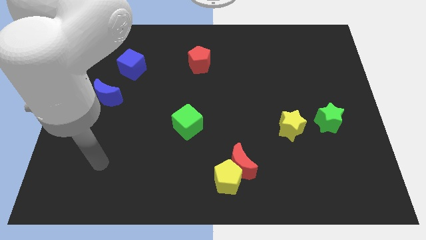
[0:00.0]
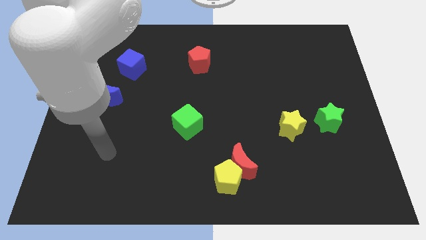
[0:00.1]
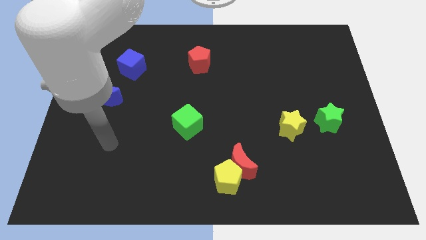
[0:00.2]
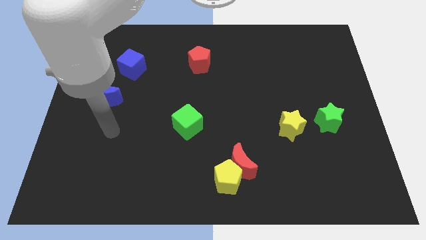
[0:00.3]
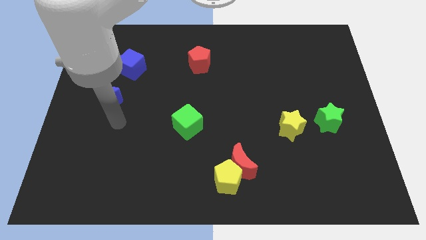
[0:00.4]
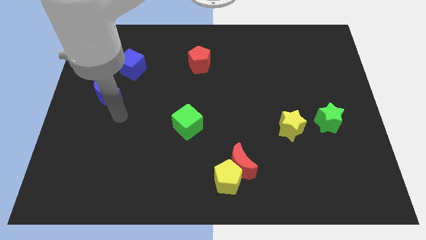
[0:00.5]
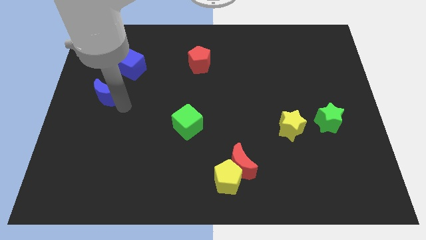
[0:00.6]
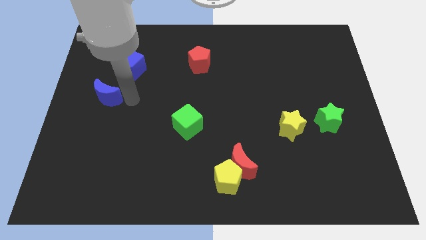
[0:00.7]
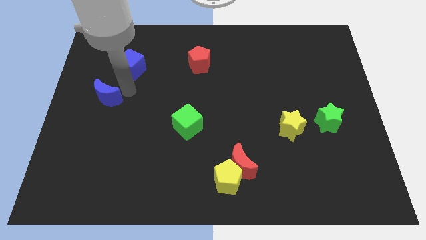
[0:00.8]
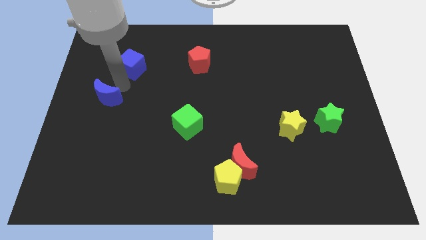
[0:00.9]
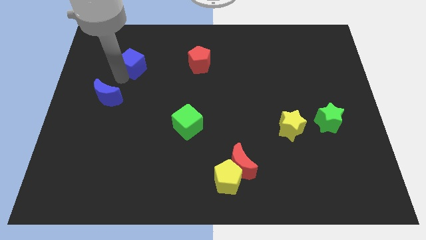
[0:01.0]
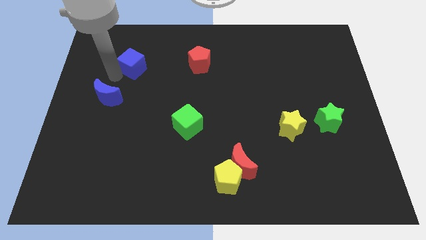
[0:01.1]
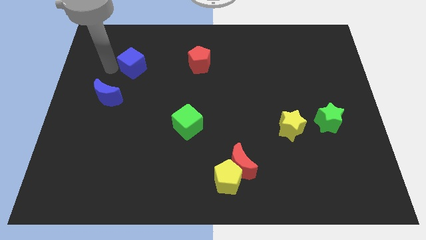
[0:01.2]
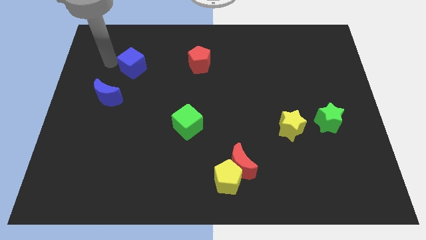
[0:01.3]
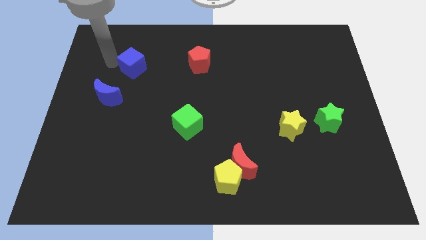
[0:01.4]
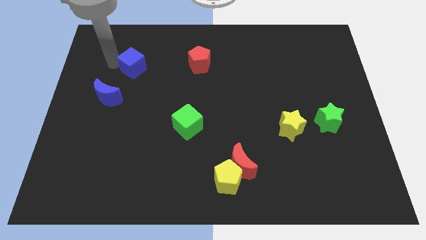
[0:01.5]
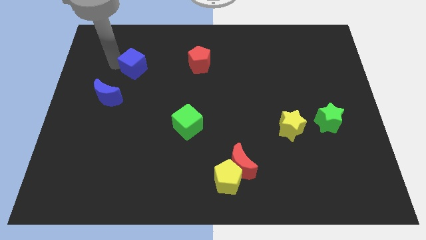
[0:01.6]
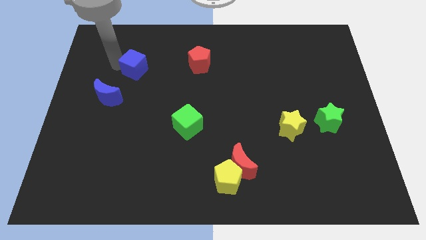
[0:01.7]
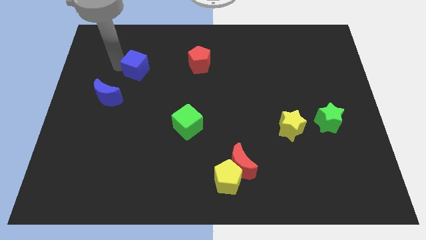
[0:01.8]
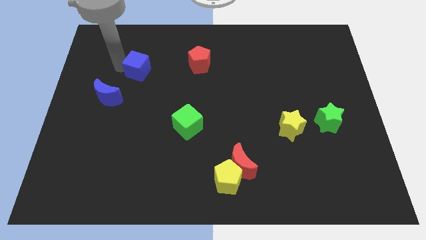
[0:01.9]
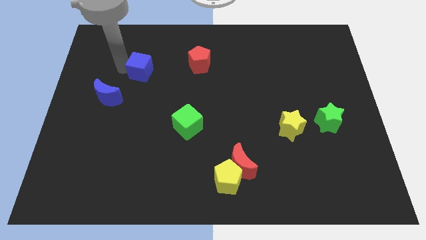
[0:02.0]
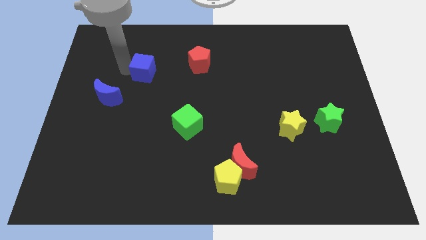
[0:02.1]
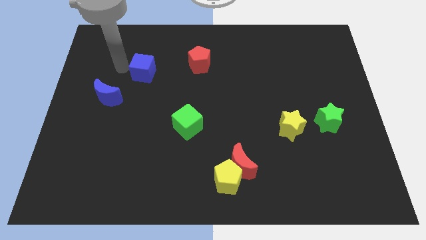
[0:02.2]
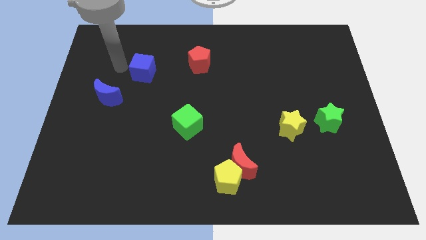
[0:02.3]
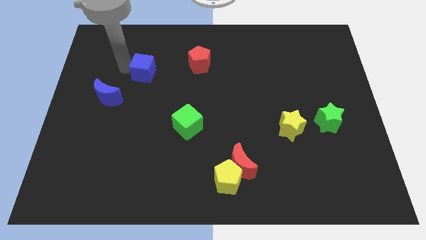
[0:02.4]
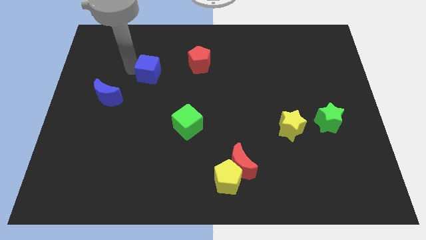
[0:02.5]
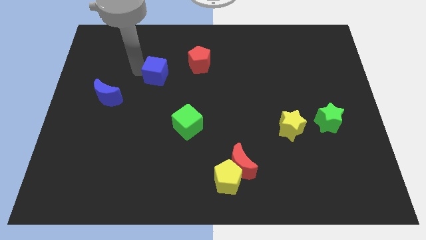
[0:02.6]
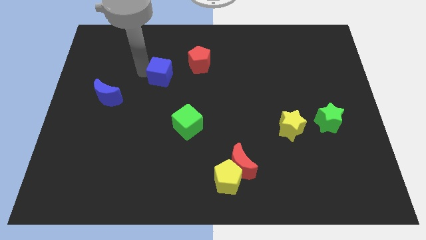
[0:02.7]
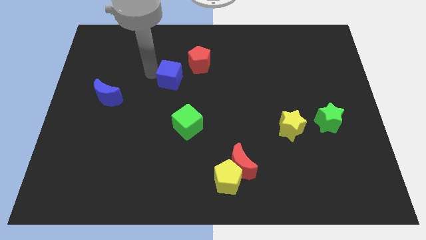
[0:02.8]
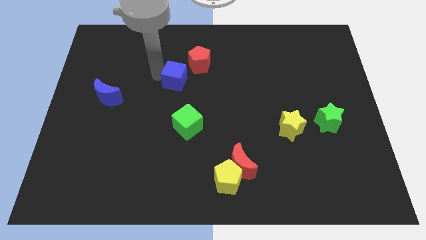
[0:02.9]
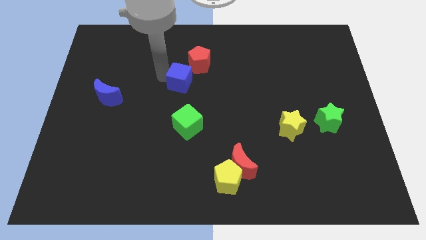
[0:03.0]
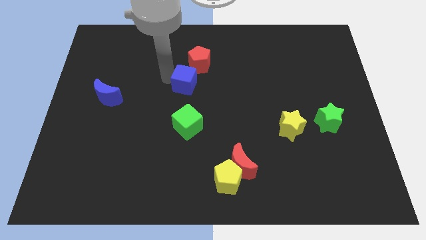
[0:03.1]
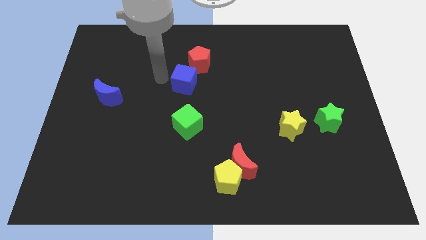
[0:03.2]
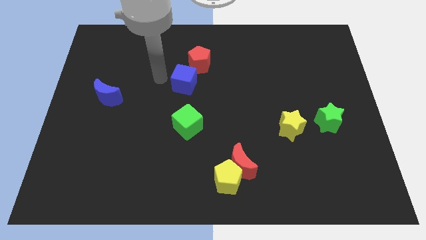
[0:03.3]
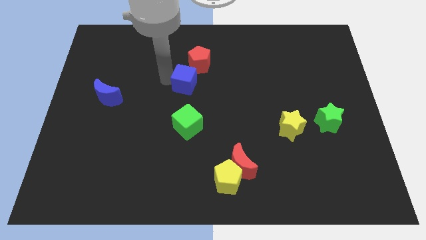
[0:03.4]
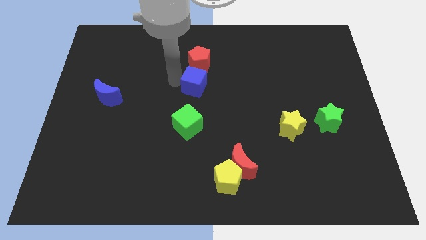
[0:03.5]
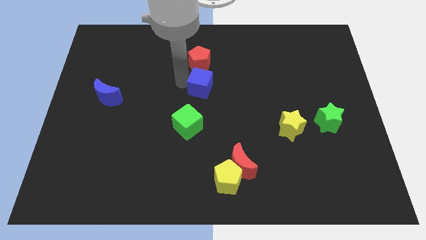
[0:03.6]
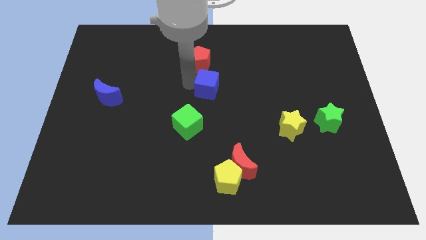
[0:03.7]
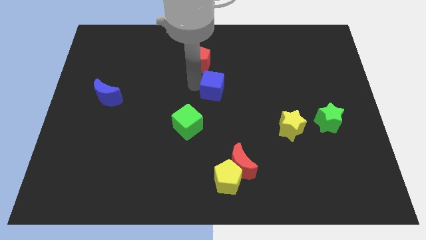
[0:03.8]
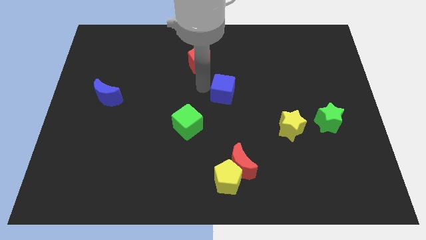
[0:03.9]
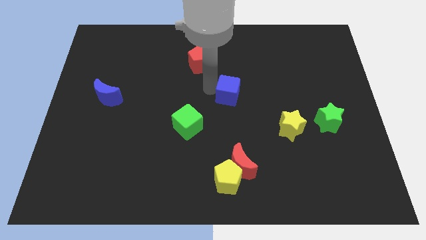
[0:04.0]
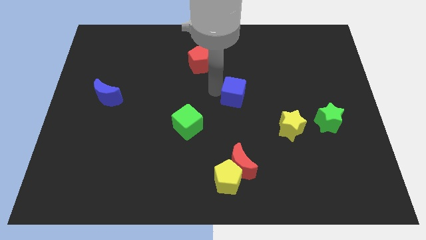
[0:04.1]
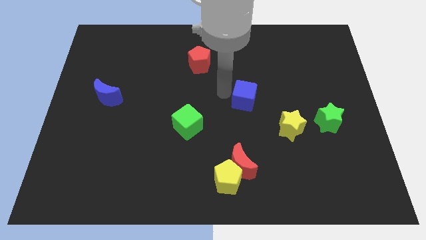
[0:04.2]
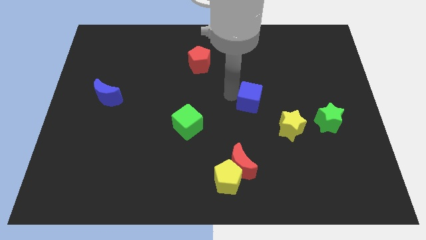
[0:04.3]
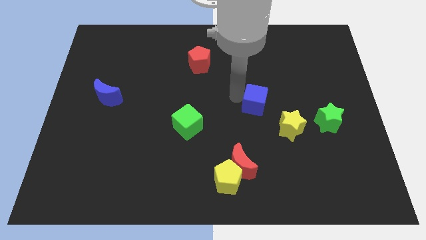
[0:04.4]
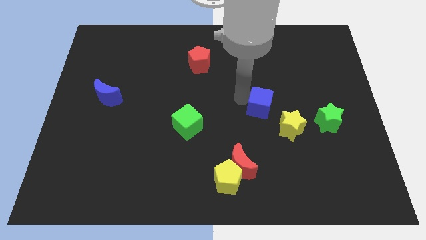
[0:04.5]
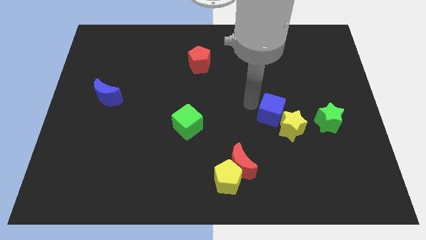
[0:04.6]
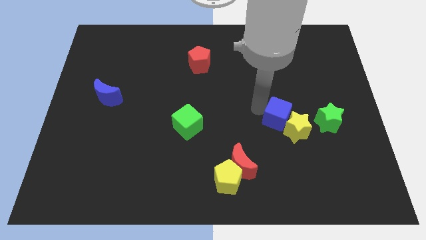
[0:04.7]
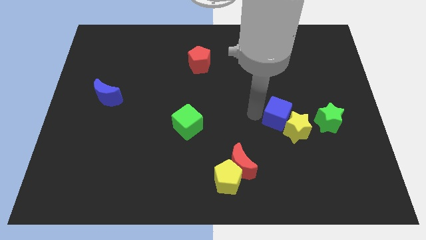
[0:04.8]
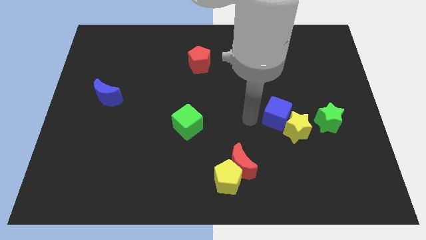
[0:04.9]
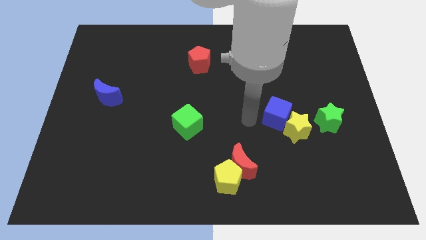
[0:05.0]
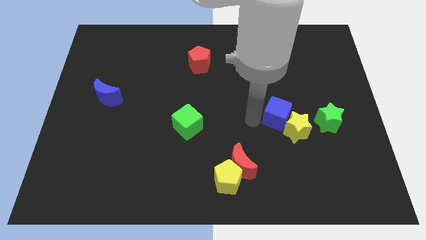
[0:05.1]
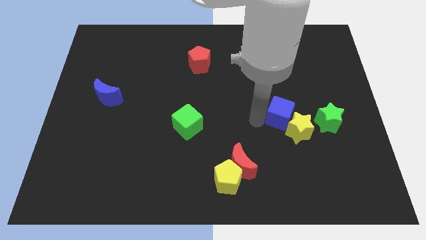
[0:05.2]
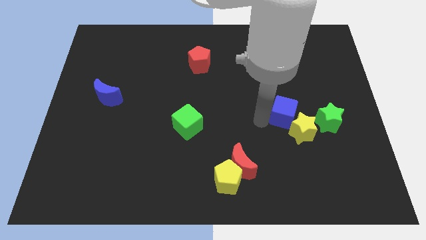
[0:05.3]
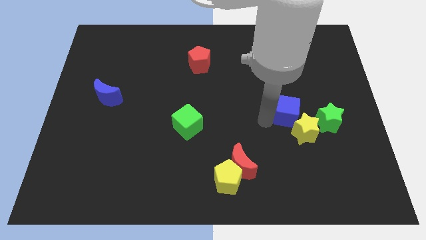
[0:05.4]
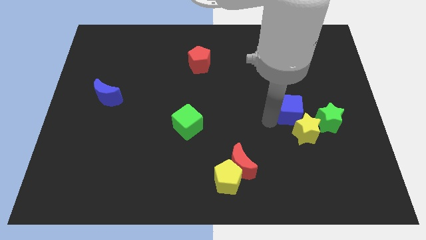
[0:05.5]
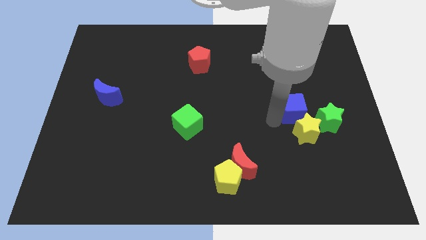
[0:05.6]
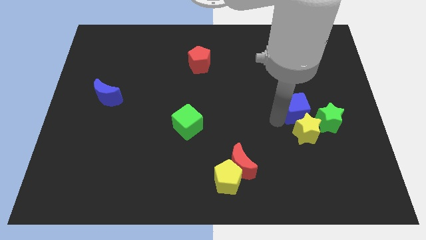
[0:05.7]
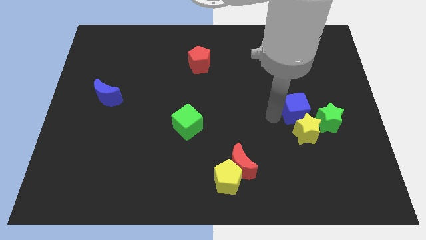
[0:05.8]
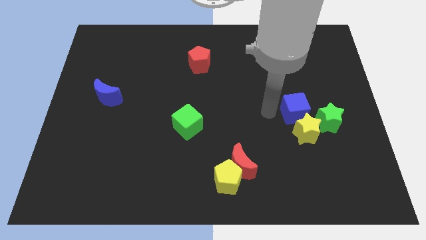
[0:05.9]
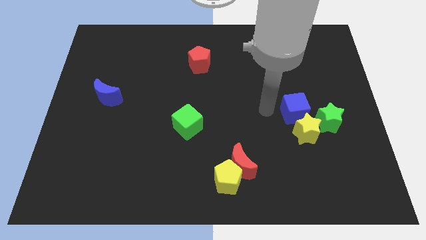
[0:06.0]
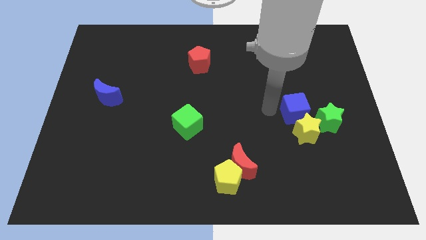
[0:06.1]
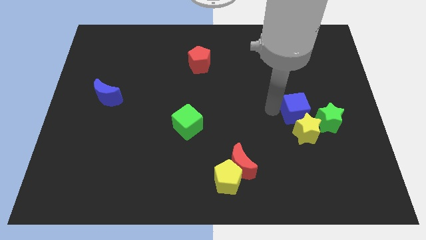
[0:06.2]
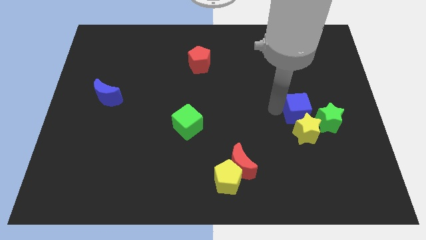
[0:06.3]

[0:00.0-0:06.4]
push the blue cube to the top right side of the yellow star
